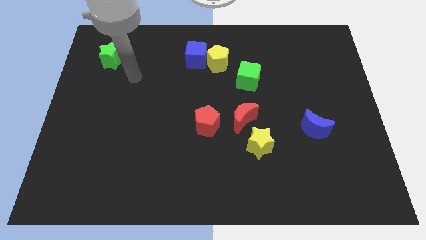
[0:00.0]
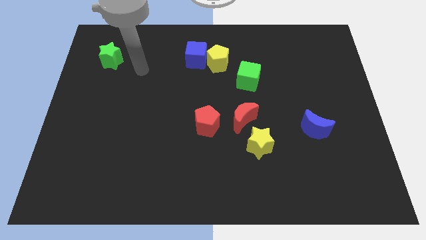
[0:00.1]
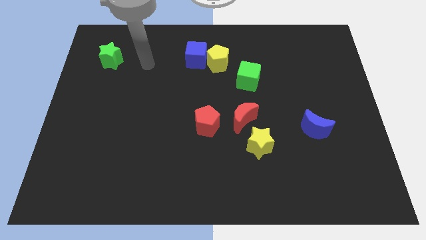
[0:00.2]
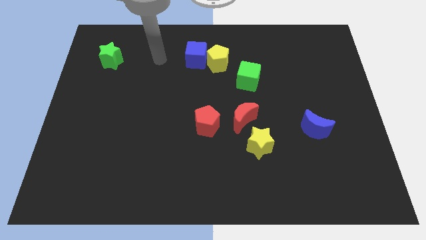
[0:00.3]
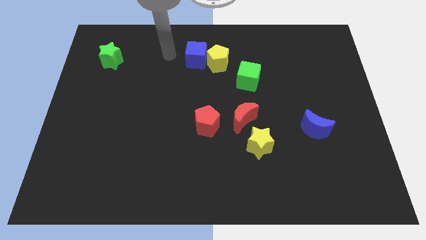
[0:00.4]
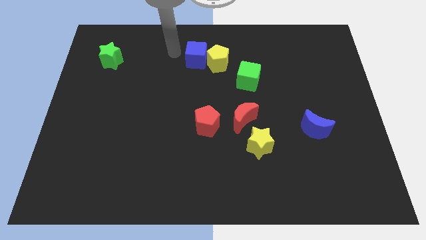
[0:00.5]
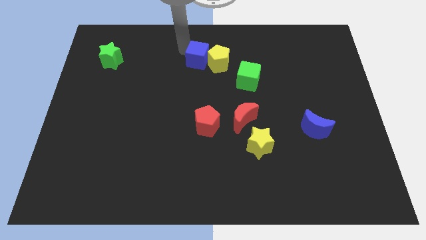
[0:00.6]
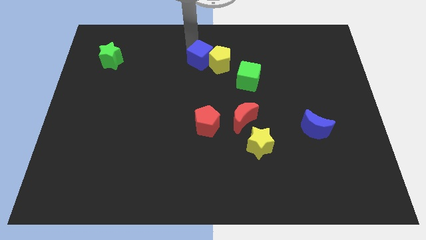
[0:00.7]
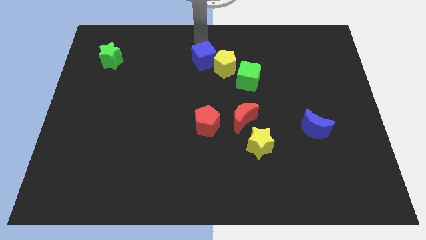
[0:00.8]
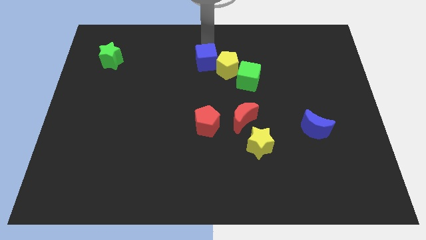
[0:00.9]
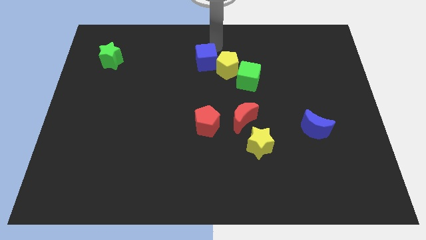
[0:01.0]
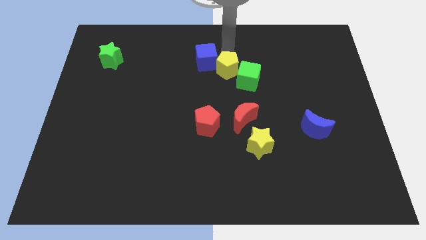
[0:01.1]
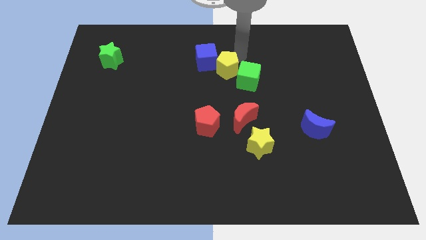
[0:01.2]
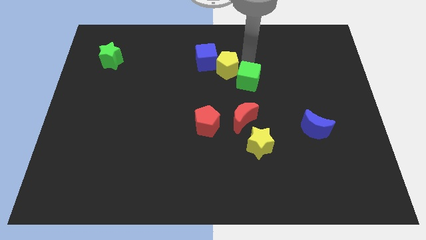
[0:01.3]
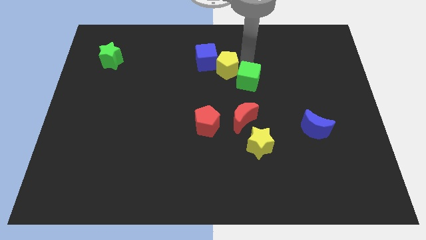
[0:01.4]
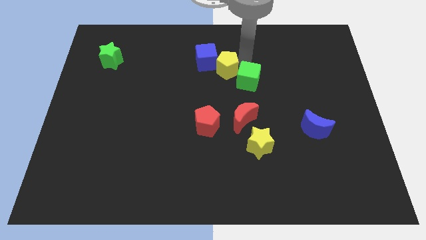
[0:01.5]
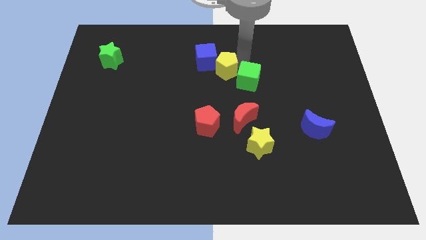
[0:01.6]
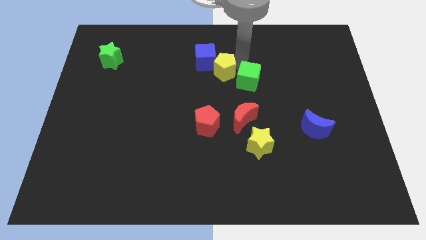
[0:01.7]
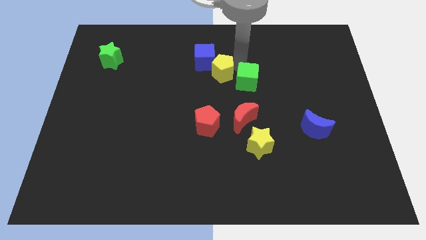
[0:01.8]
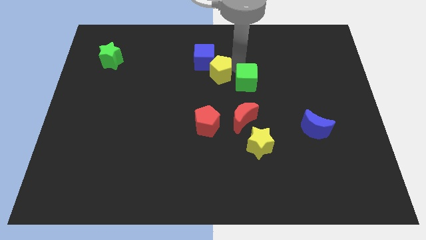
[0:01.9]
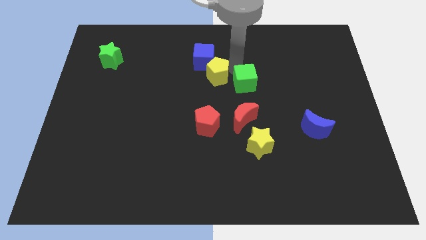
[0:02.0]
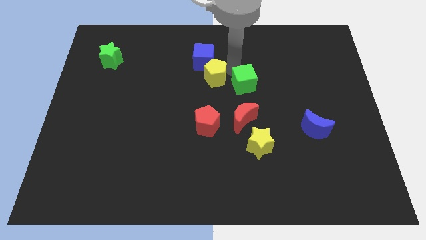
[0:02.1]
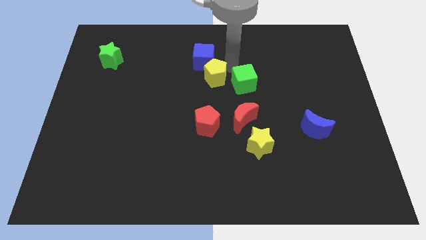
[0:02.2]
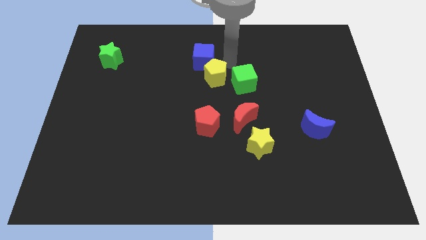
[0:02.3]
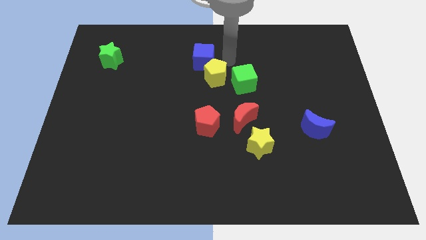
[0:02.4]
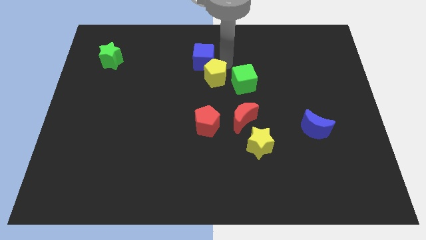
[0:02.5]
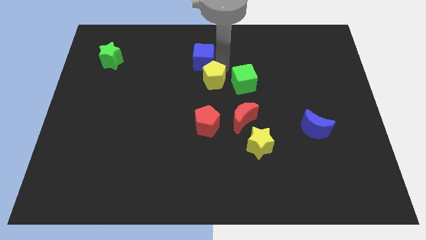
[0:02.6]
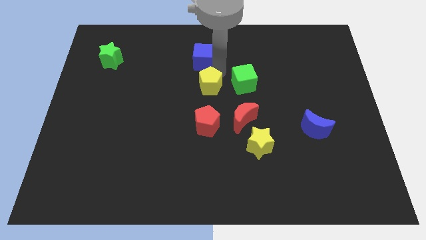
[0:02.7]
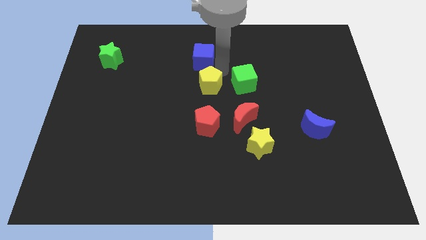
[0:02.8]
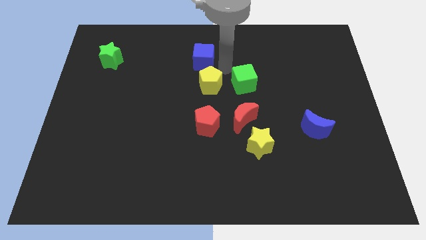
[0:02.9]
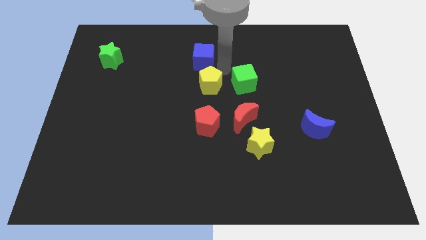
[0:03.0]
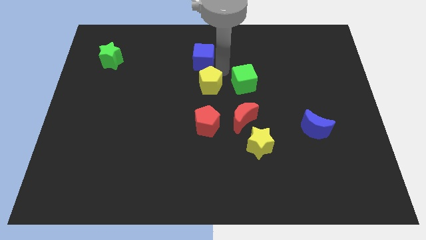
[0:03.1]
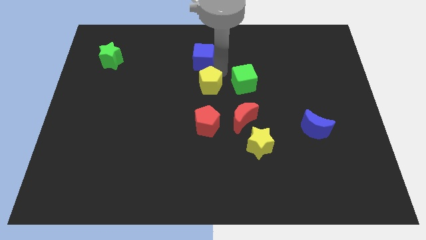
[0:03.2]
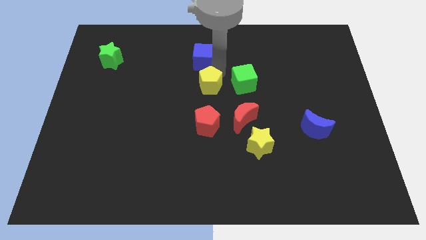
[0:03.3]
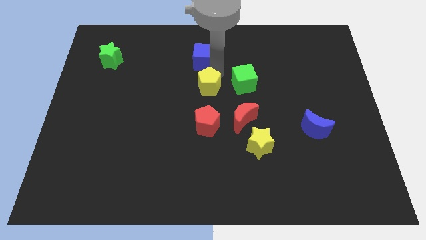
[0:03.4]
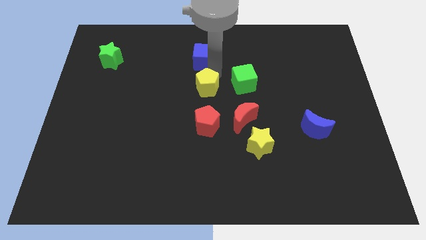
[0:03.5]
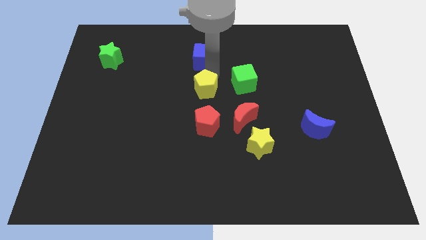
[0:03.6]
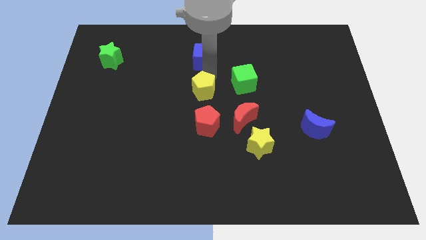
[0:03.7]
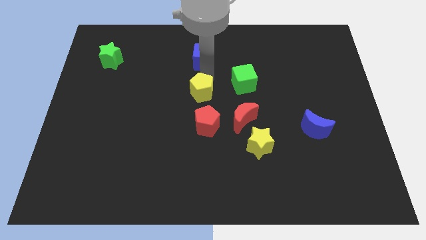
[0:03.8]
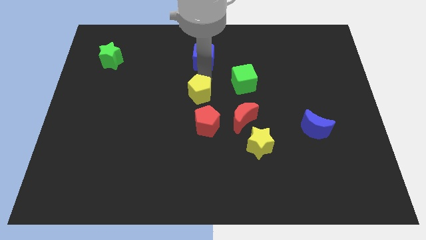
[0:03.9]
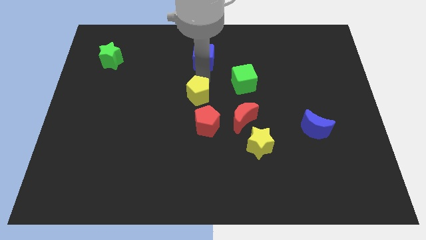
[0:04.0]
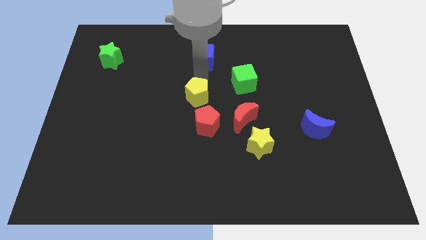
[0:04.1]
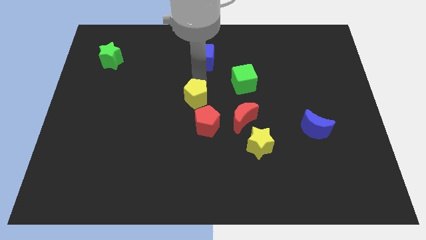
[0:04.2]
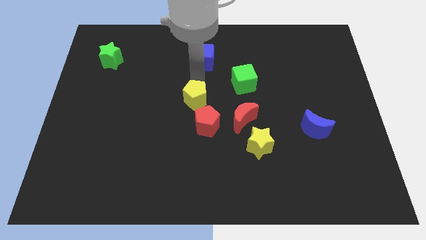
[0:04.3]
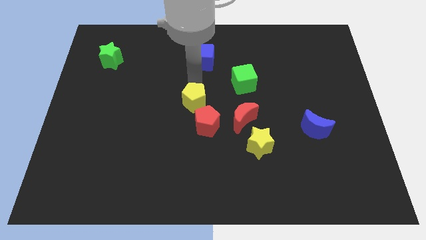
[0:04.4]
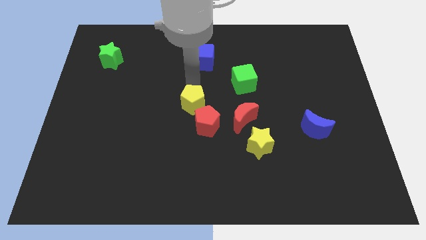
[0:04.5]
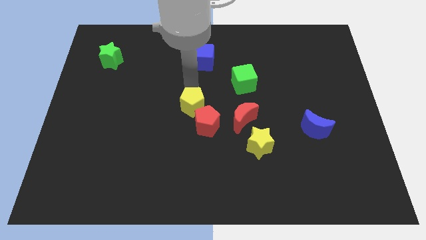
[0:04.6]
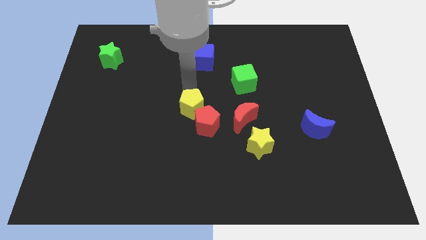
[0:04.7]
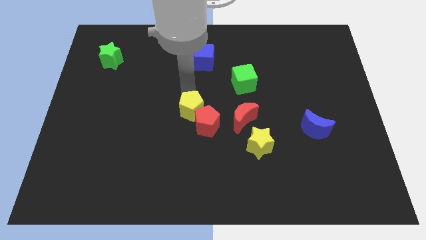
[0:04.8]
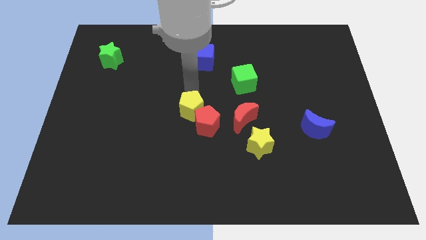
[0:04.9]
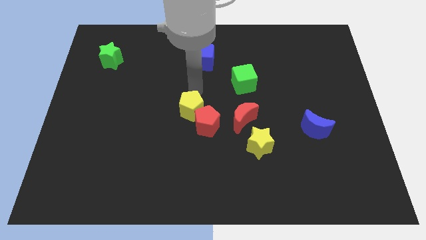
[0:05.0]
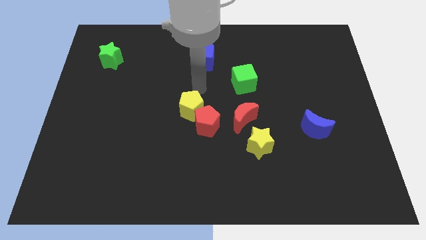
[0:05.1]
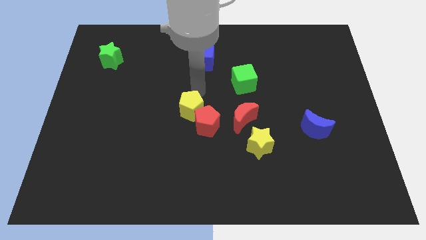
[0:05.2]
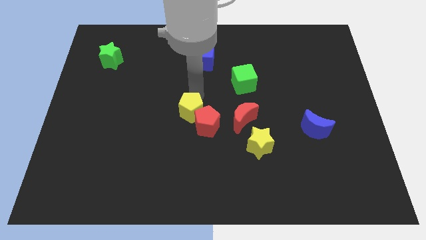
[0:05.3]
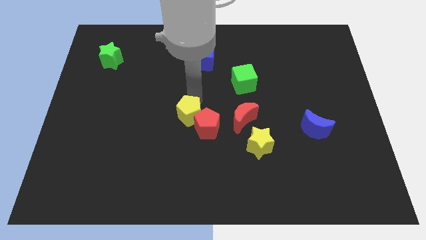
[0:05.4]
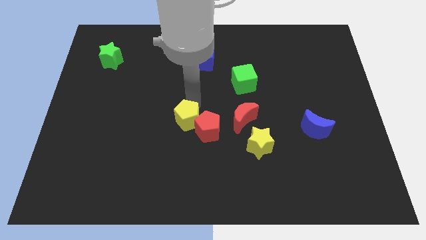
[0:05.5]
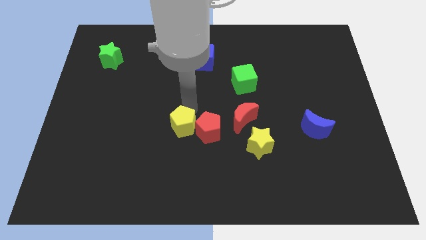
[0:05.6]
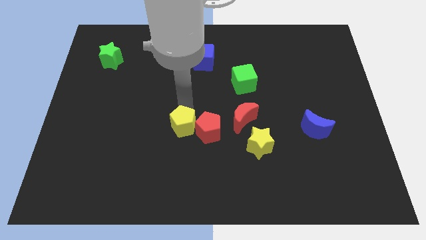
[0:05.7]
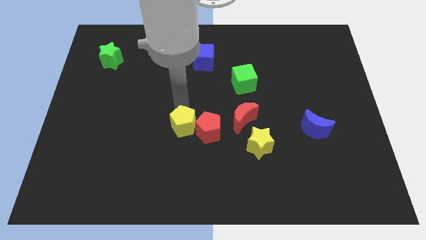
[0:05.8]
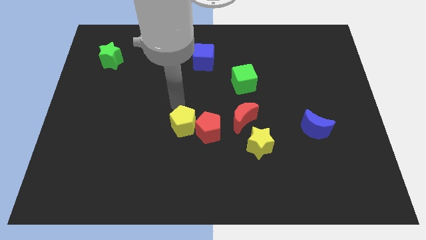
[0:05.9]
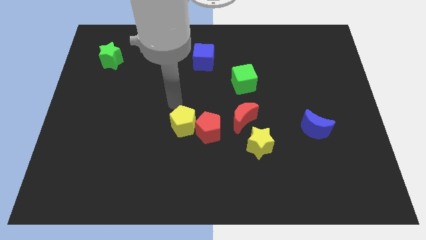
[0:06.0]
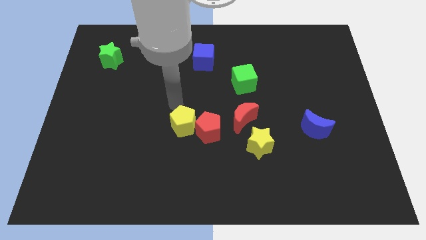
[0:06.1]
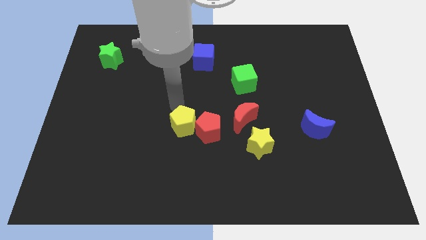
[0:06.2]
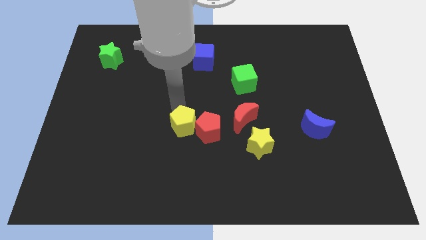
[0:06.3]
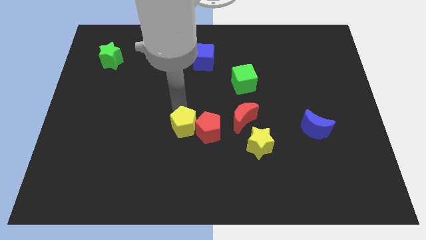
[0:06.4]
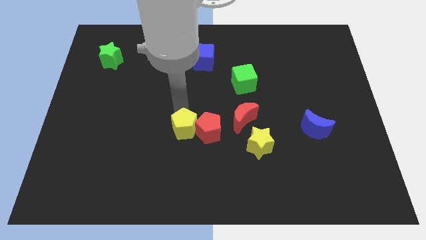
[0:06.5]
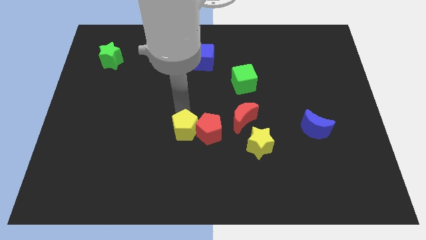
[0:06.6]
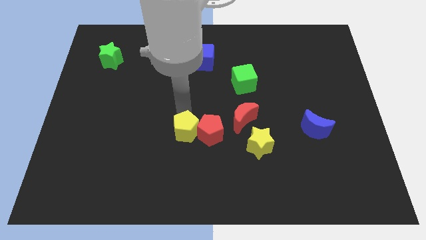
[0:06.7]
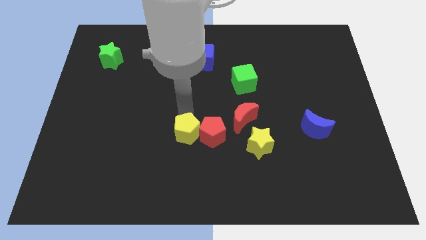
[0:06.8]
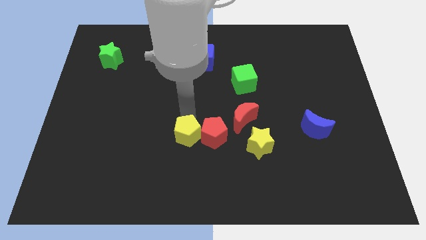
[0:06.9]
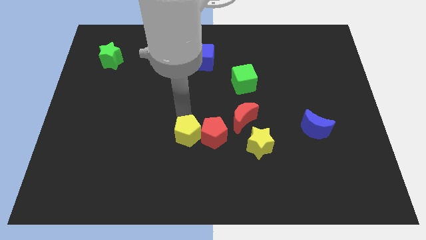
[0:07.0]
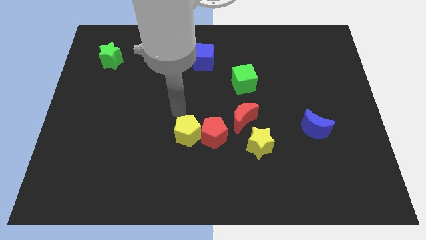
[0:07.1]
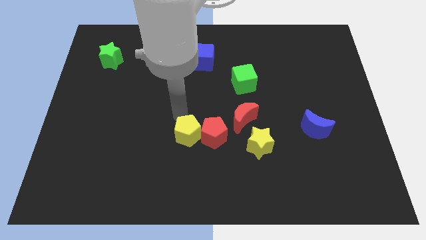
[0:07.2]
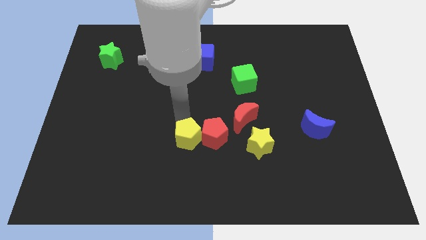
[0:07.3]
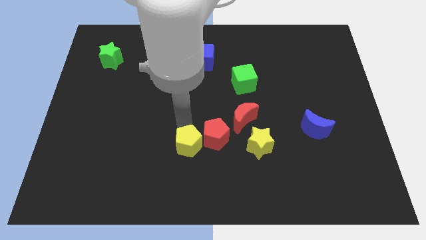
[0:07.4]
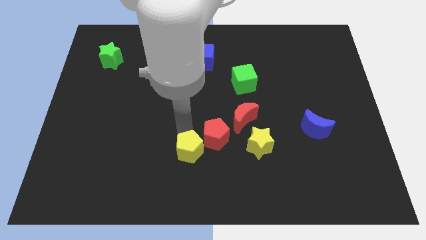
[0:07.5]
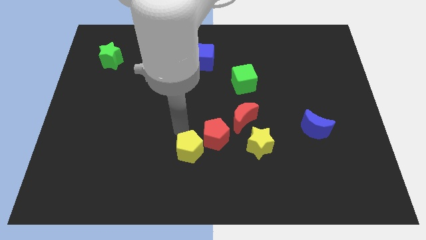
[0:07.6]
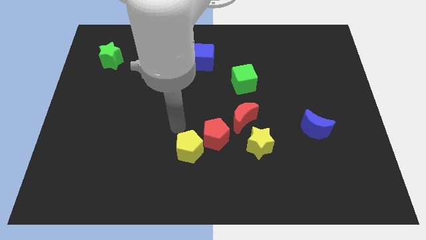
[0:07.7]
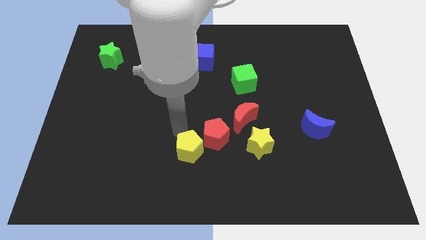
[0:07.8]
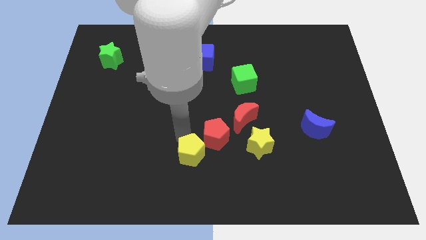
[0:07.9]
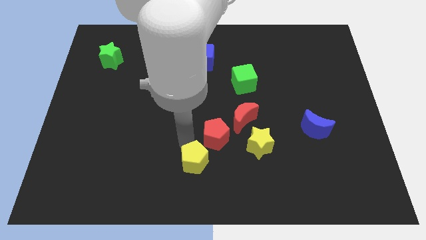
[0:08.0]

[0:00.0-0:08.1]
put the yellow pentagon to the bottom side
